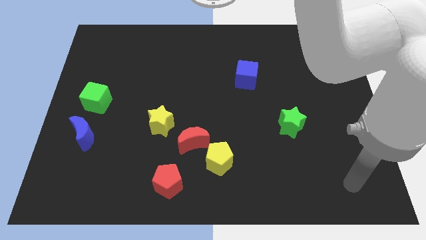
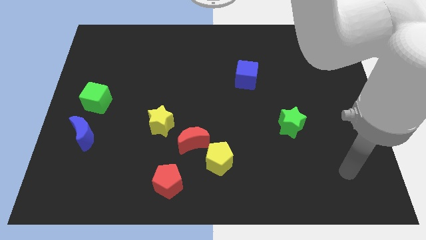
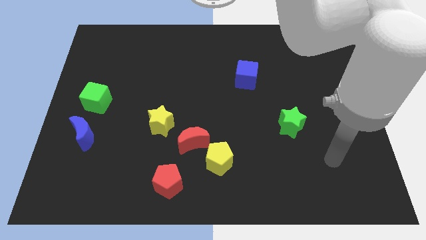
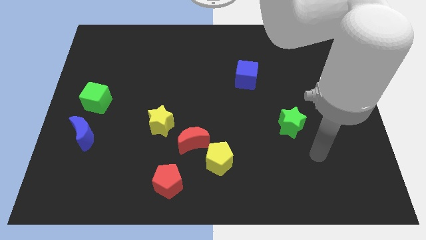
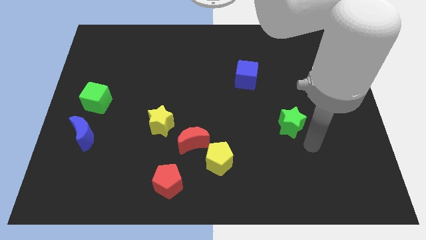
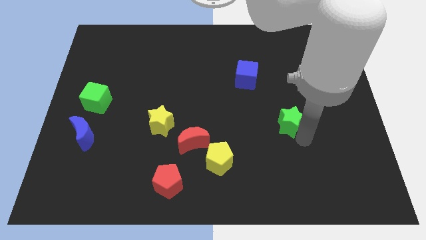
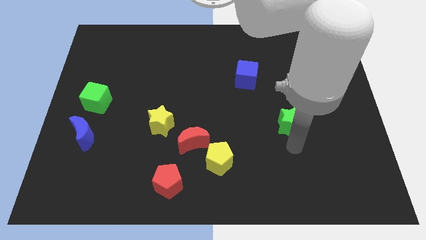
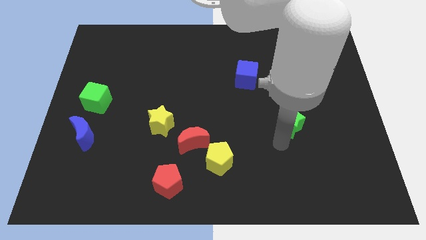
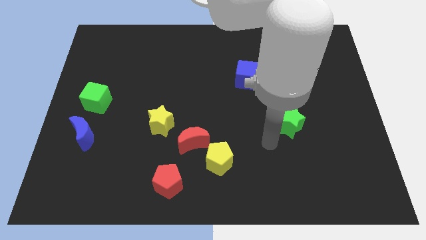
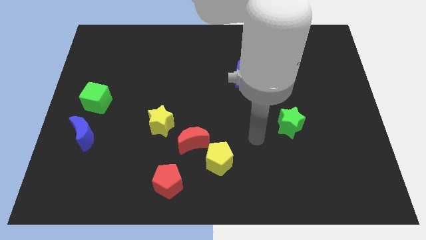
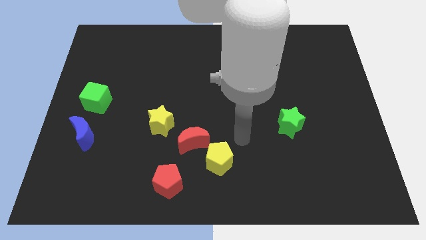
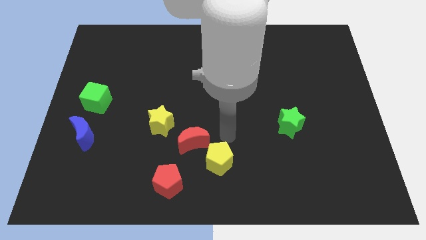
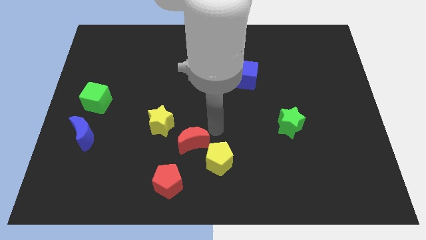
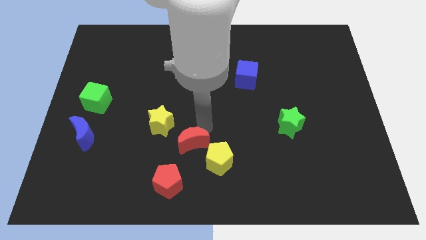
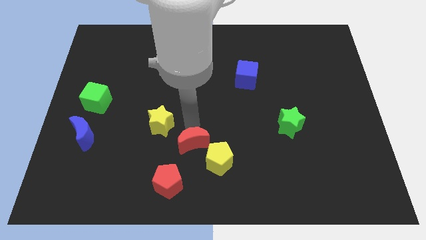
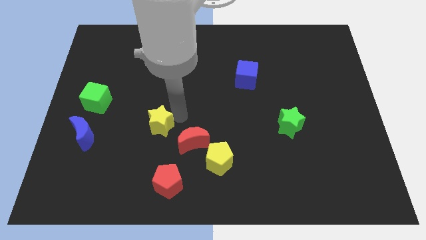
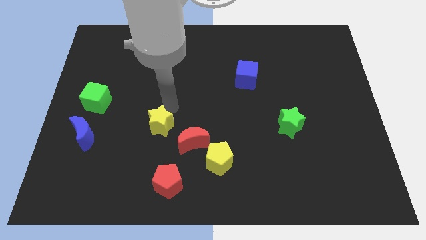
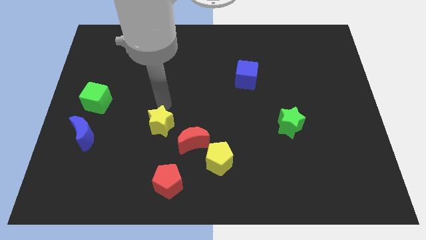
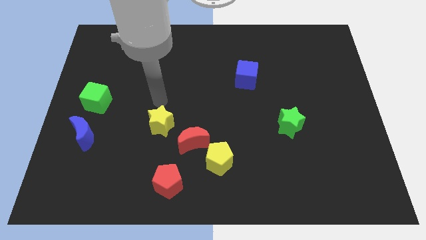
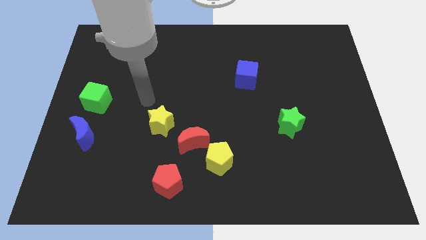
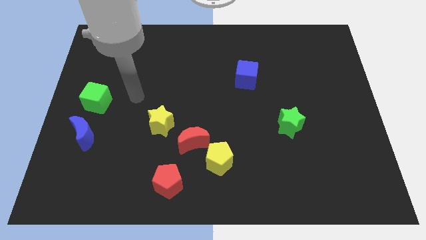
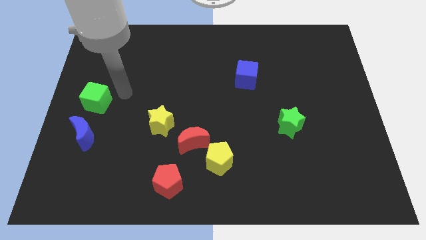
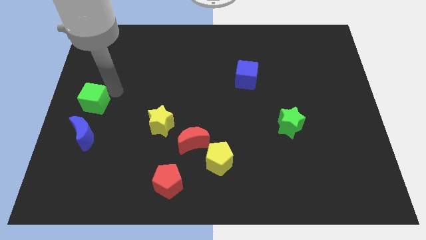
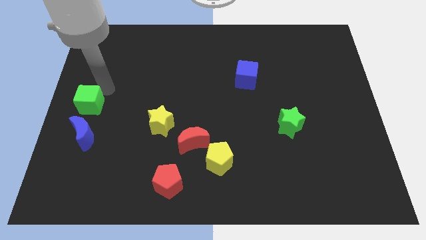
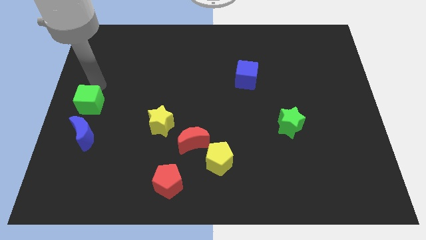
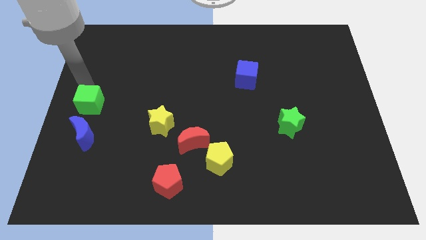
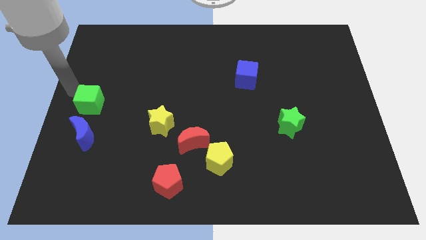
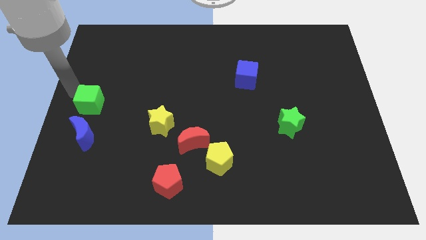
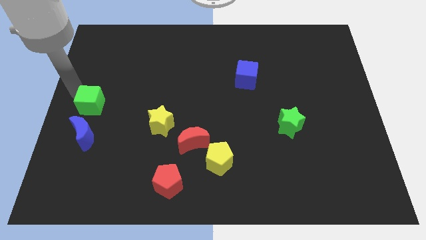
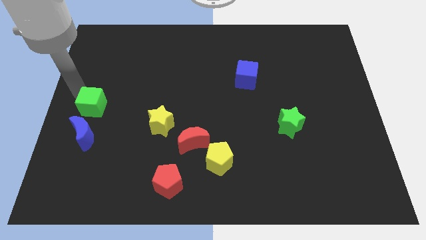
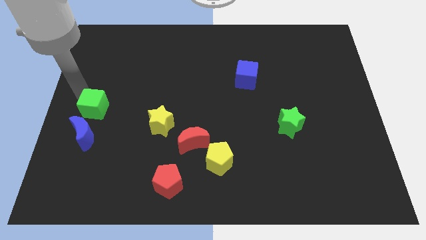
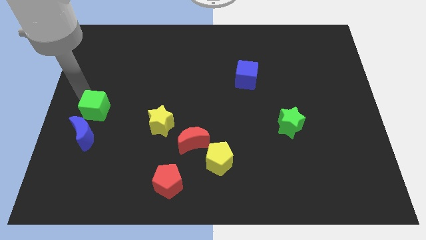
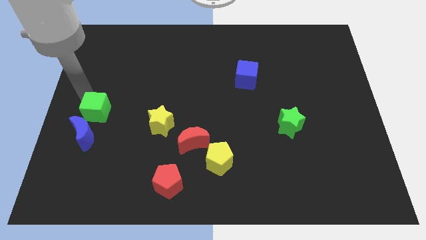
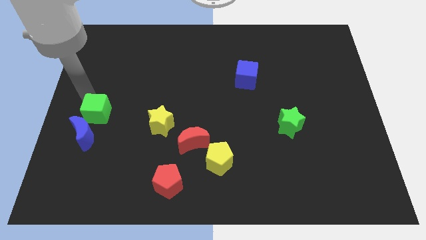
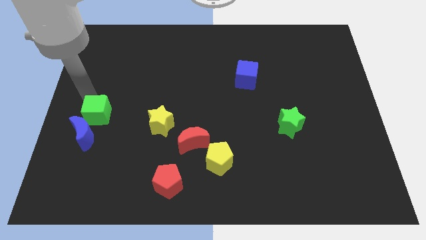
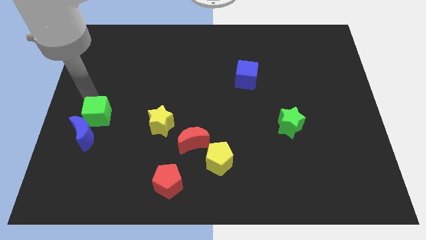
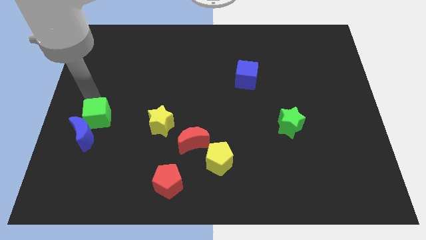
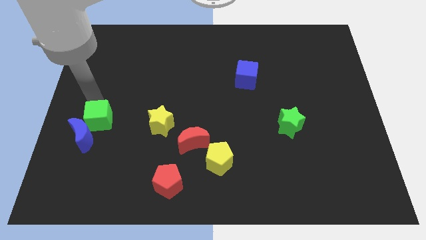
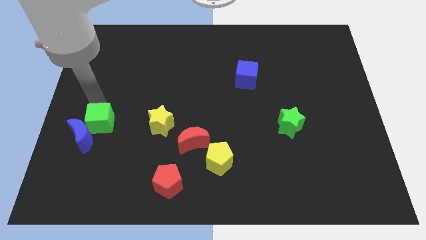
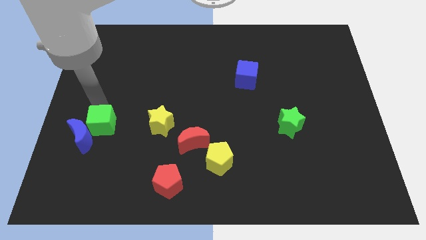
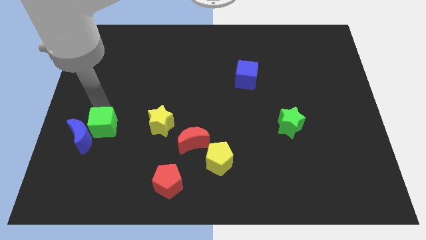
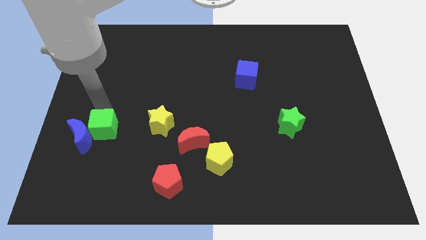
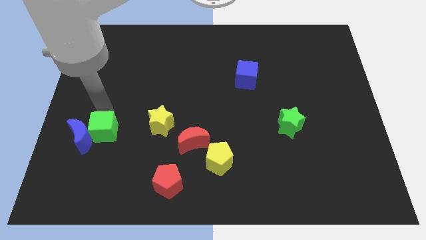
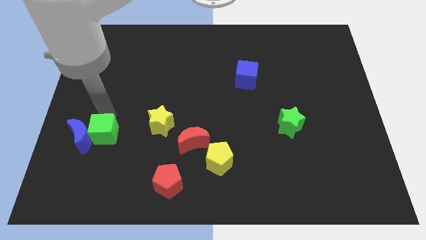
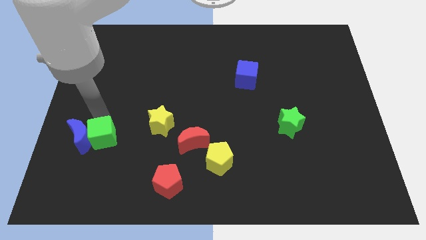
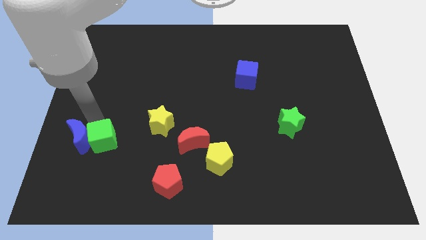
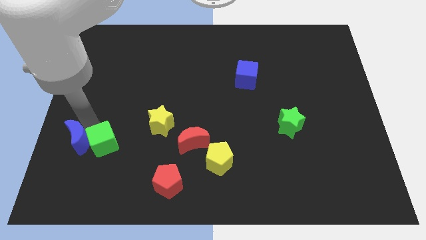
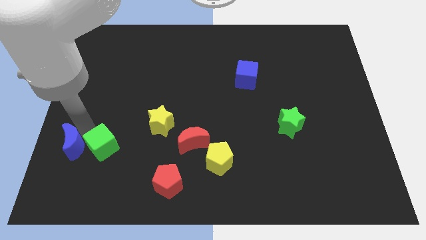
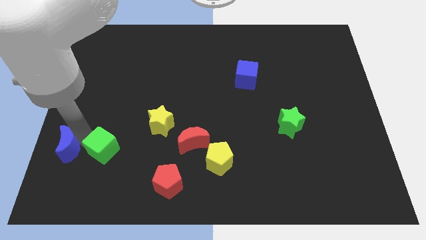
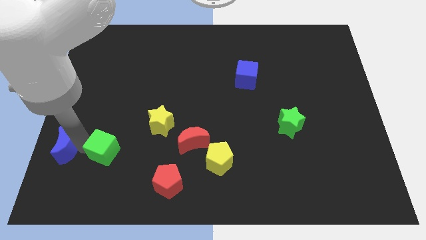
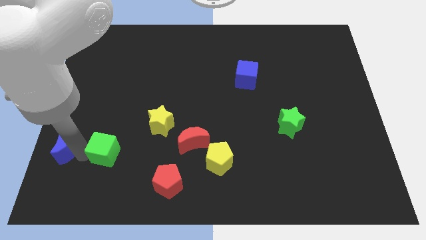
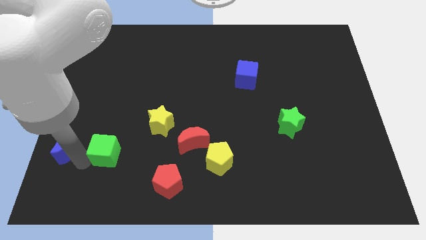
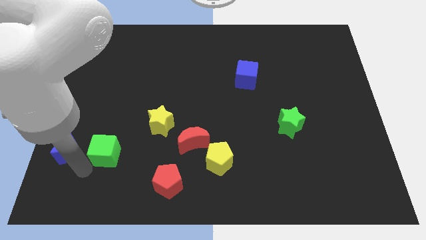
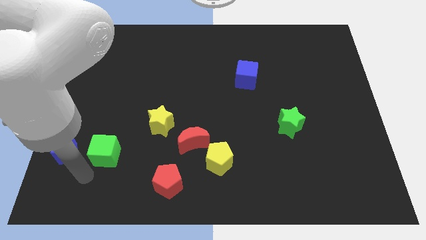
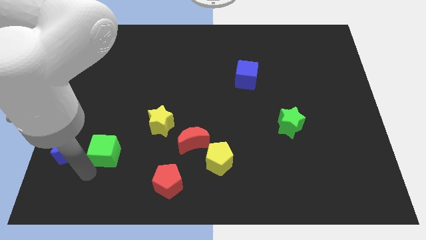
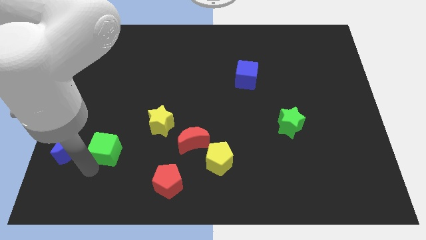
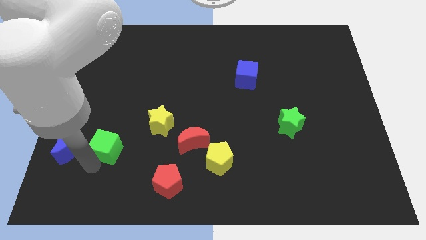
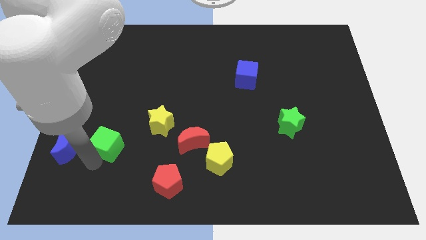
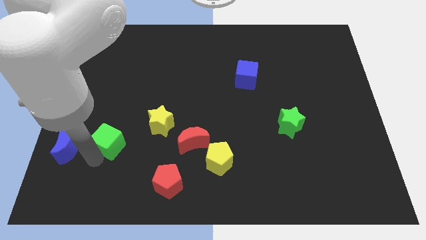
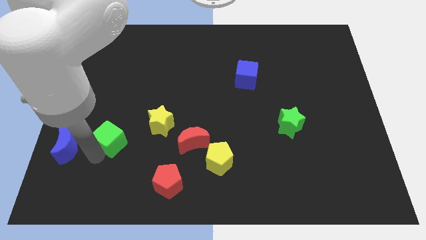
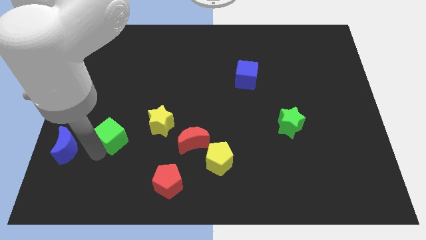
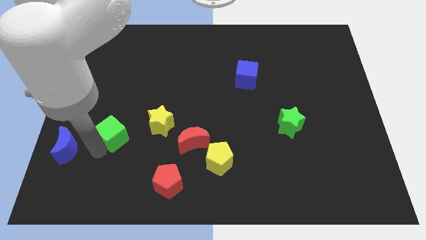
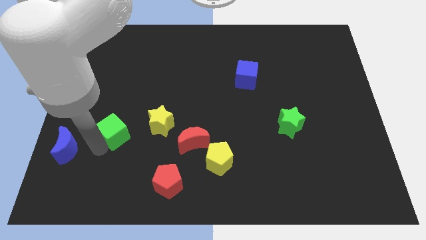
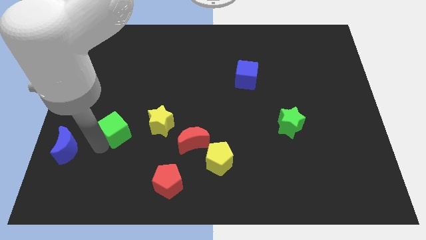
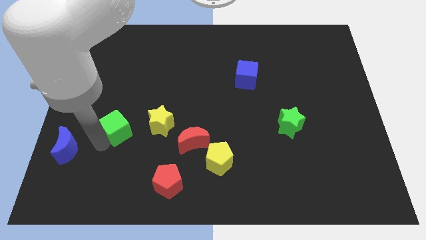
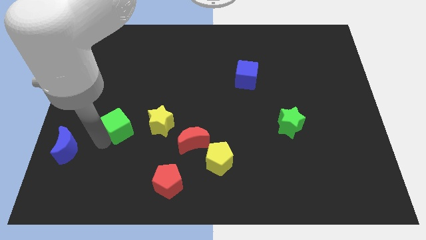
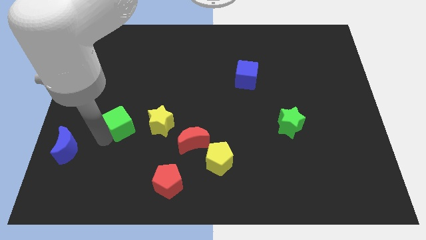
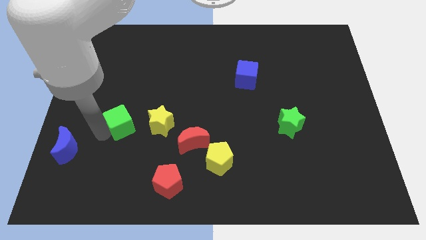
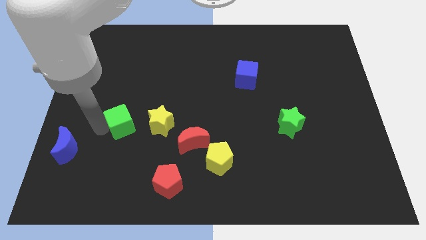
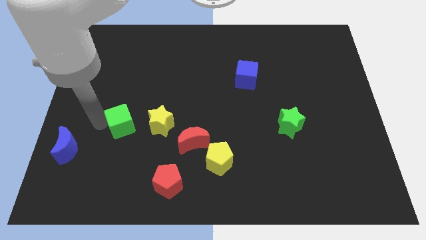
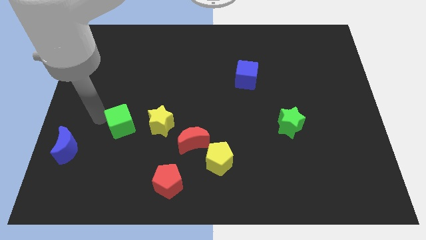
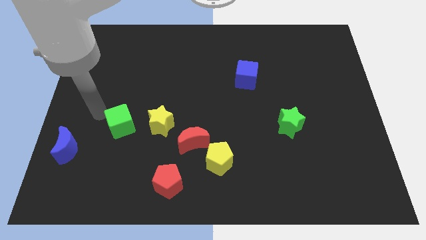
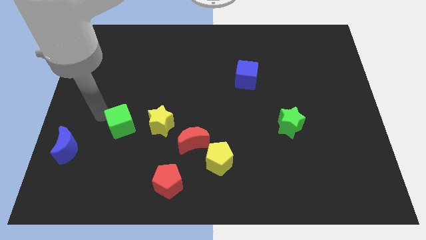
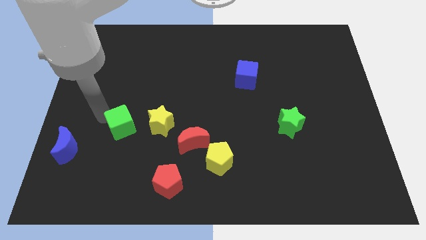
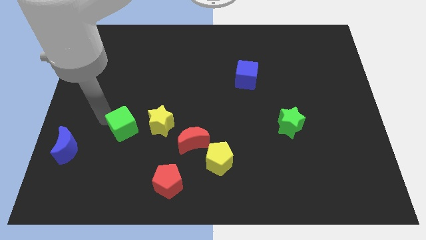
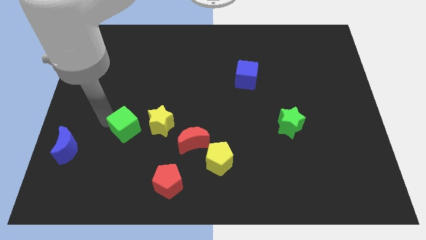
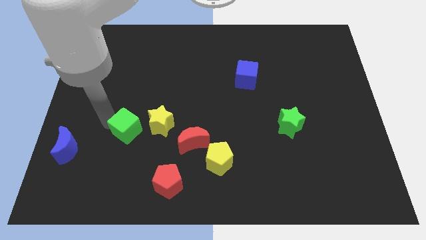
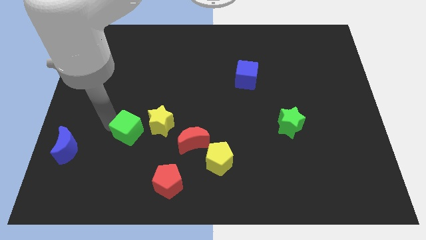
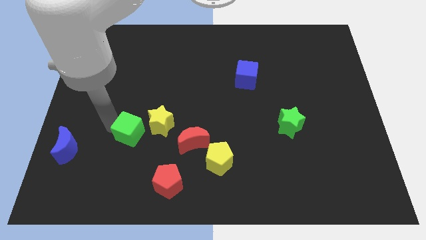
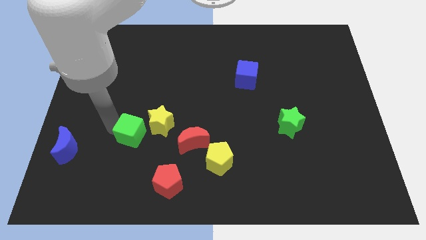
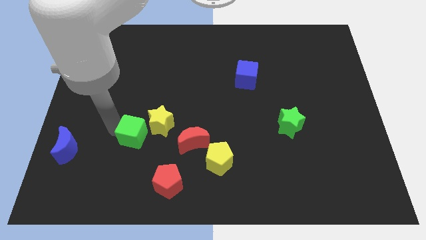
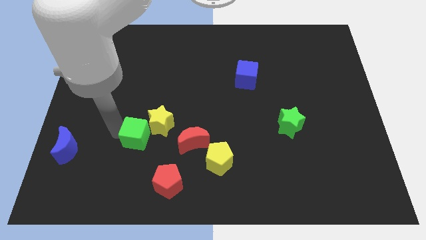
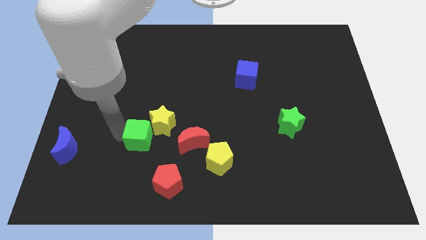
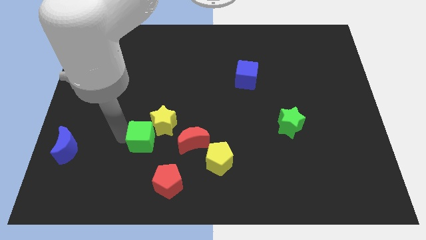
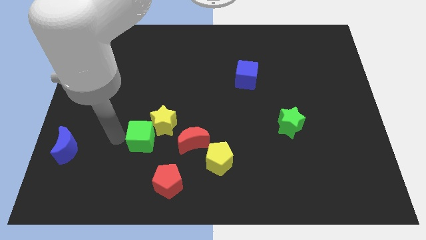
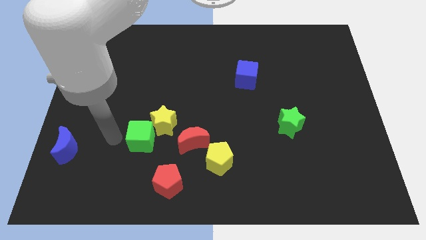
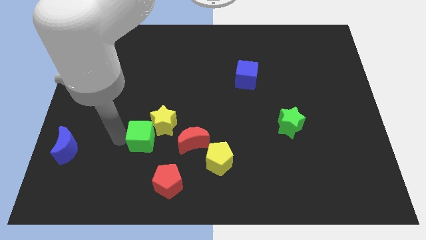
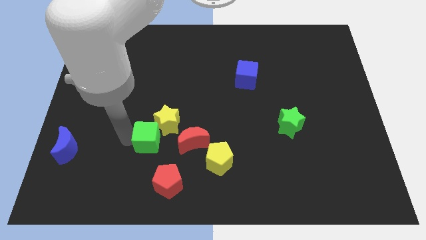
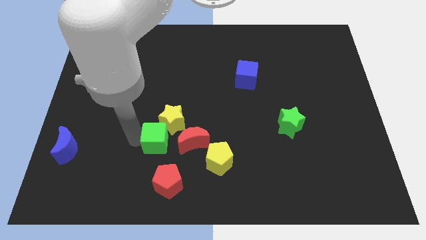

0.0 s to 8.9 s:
move the green cube above the red pentagon
